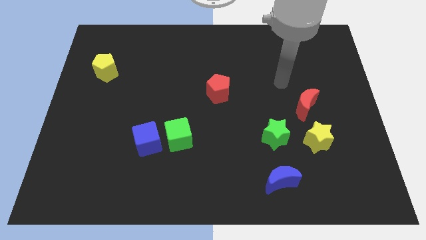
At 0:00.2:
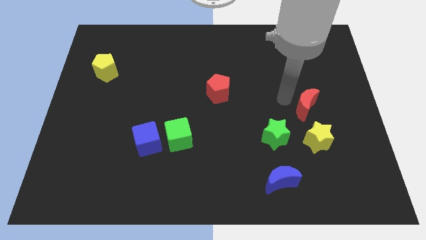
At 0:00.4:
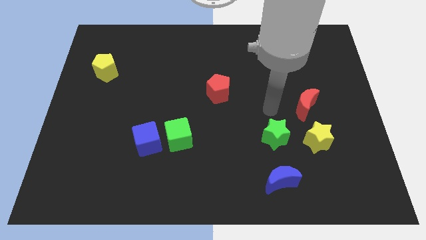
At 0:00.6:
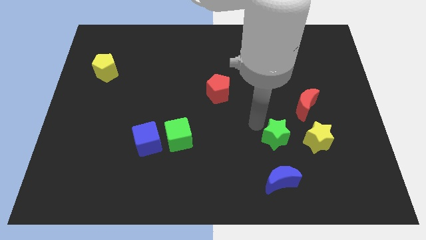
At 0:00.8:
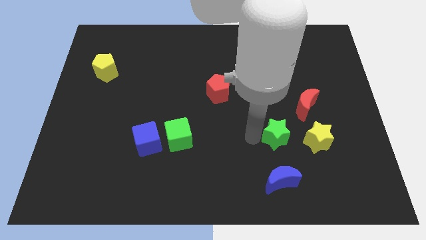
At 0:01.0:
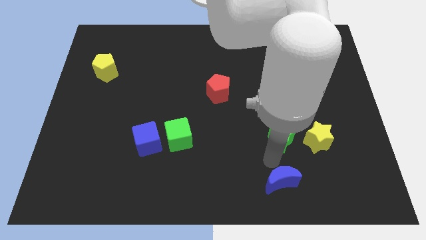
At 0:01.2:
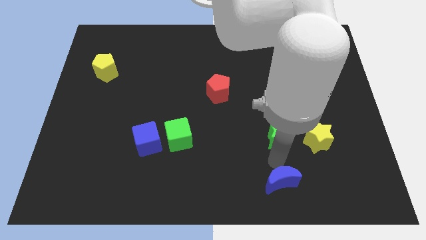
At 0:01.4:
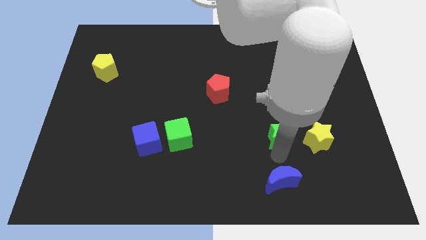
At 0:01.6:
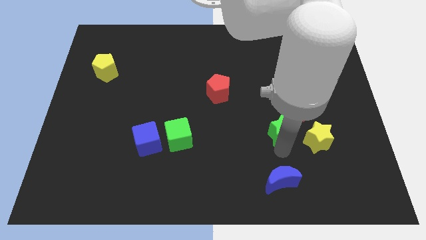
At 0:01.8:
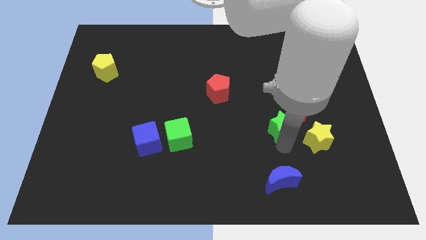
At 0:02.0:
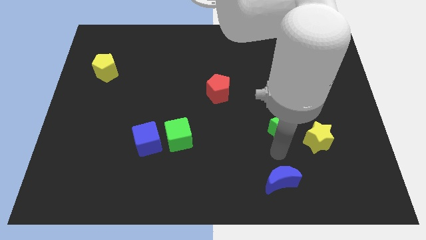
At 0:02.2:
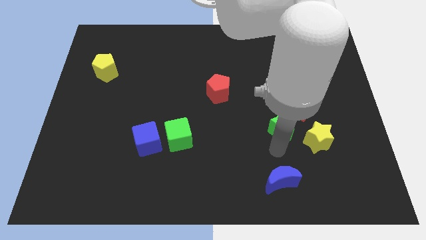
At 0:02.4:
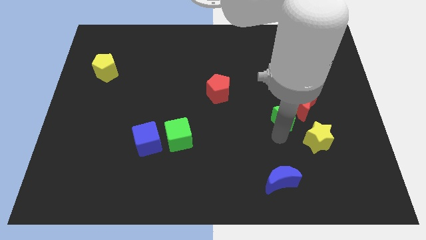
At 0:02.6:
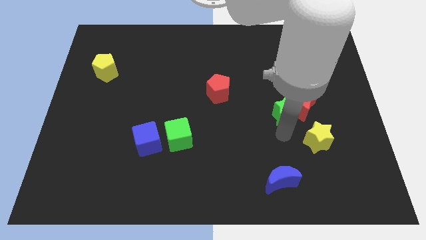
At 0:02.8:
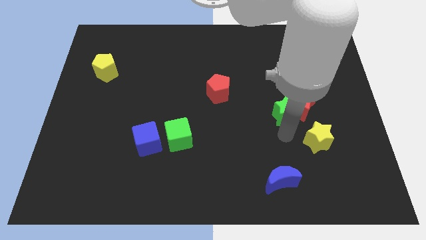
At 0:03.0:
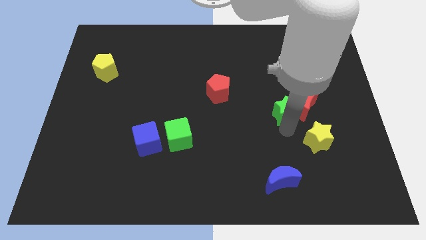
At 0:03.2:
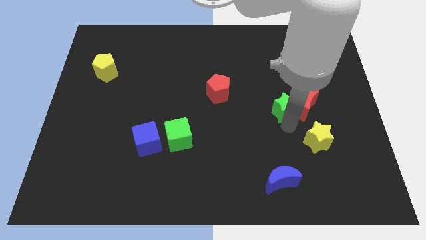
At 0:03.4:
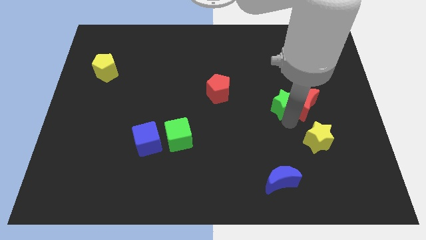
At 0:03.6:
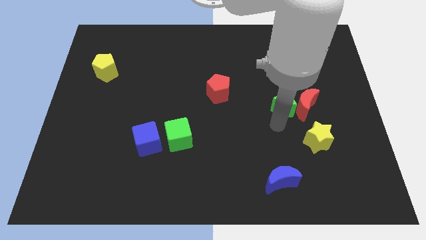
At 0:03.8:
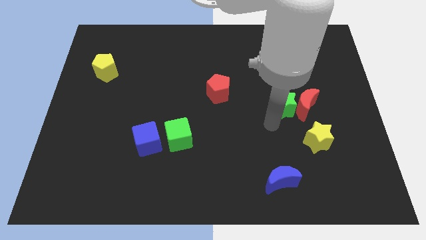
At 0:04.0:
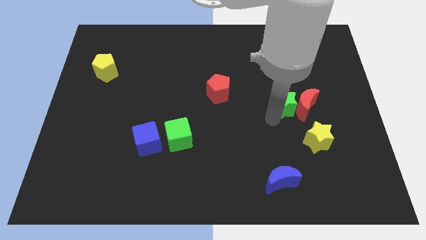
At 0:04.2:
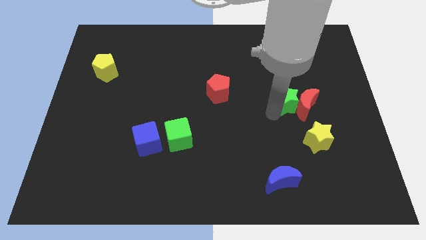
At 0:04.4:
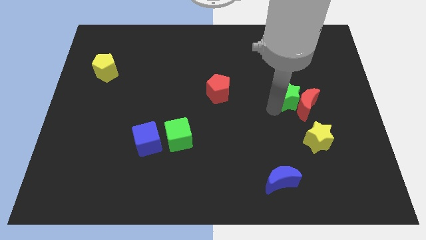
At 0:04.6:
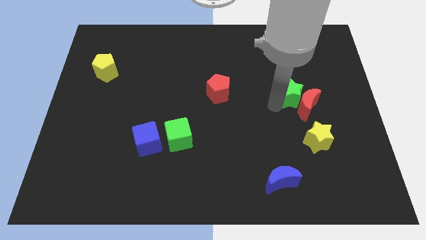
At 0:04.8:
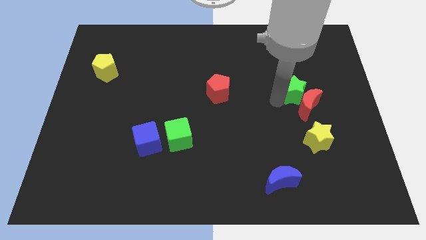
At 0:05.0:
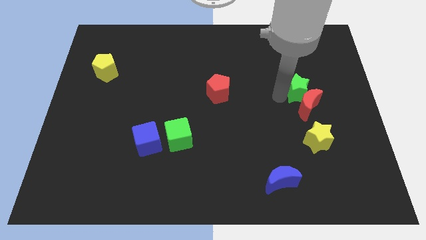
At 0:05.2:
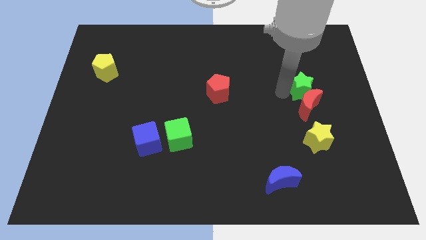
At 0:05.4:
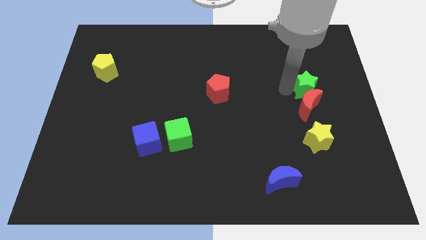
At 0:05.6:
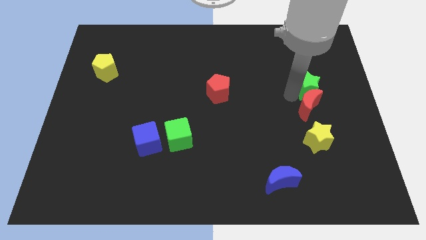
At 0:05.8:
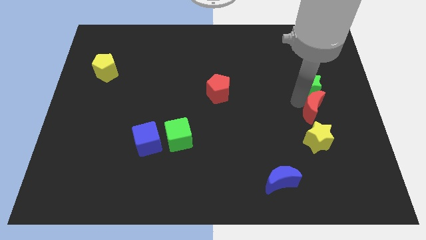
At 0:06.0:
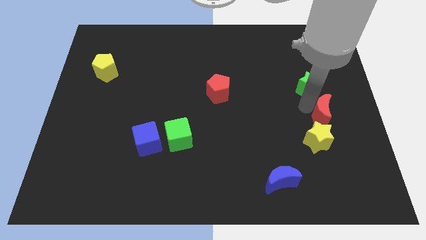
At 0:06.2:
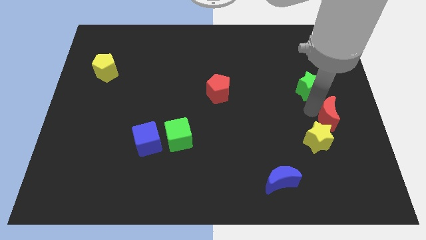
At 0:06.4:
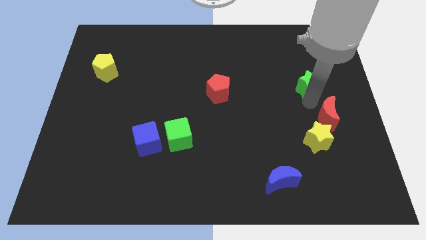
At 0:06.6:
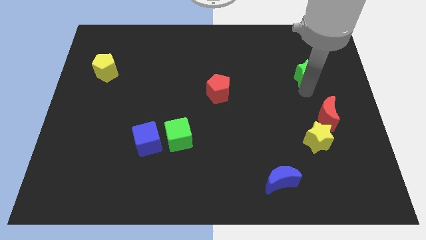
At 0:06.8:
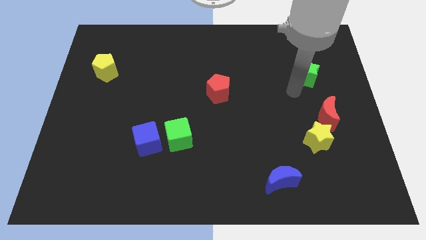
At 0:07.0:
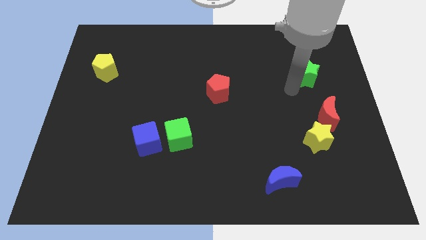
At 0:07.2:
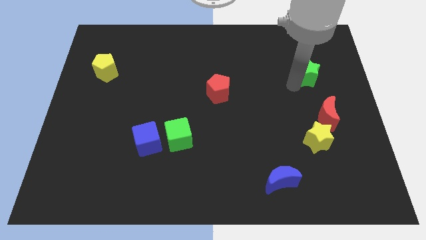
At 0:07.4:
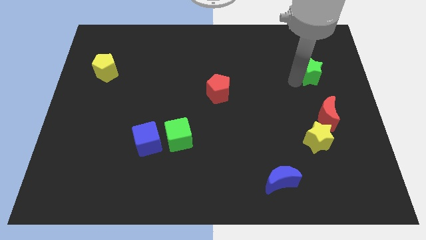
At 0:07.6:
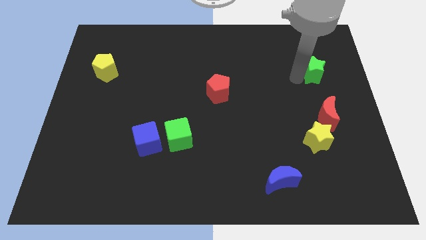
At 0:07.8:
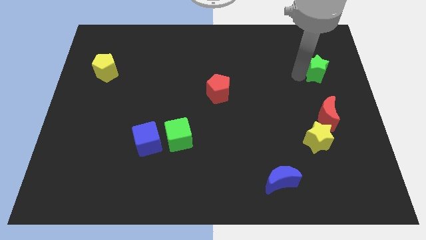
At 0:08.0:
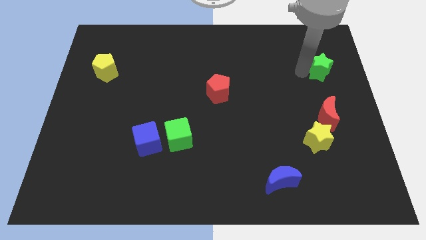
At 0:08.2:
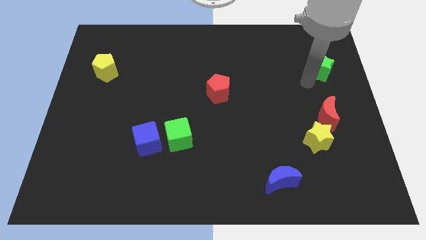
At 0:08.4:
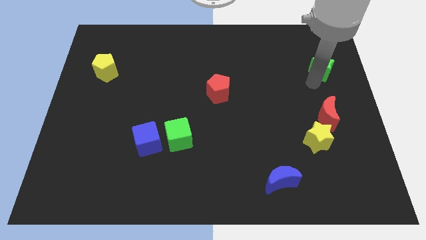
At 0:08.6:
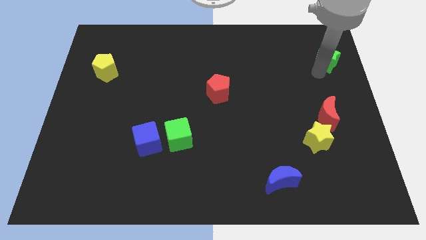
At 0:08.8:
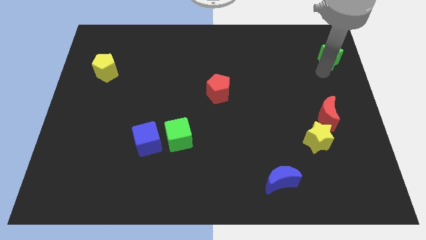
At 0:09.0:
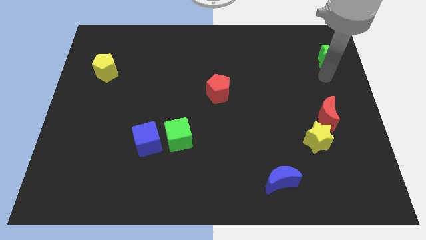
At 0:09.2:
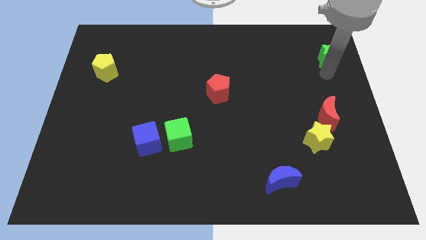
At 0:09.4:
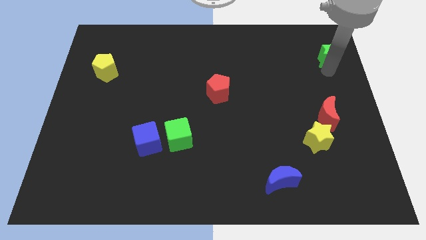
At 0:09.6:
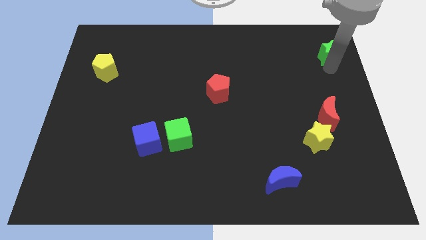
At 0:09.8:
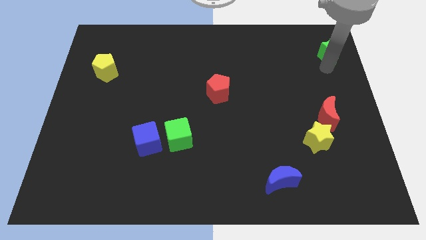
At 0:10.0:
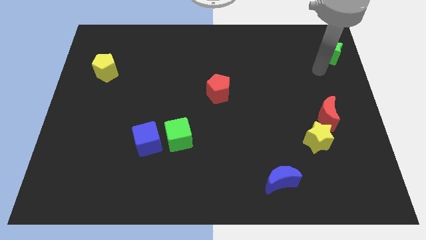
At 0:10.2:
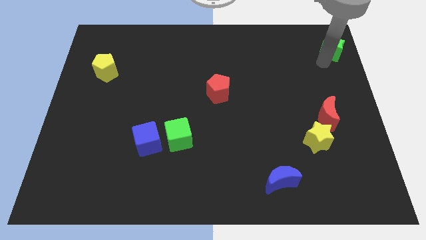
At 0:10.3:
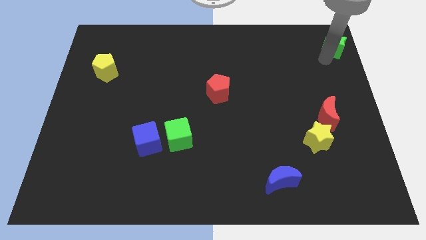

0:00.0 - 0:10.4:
slide the green star to the top right corner

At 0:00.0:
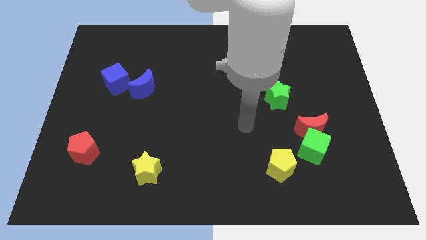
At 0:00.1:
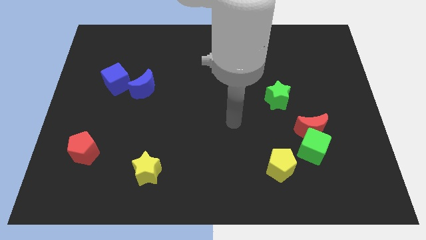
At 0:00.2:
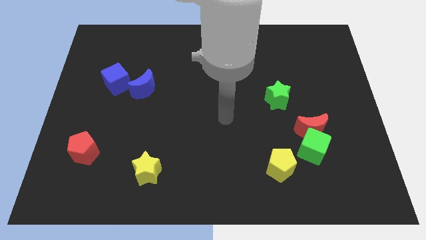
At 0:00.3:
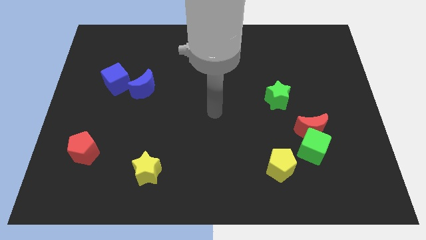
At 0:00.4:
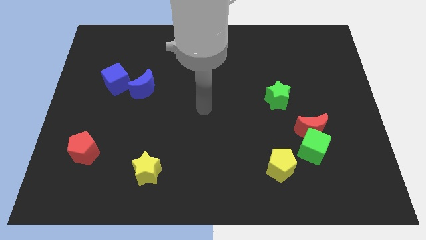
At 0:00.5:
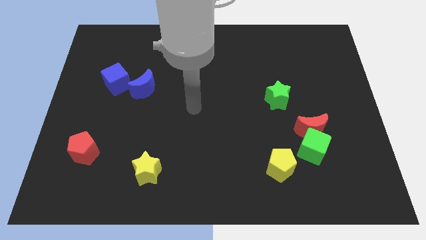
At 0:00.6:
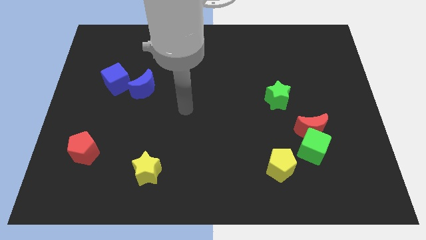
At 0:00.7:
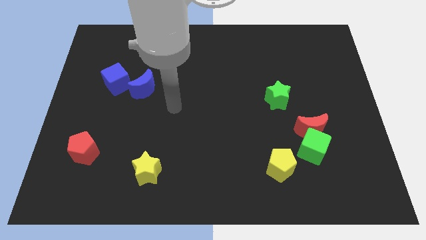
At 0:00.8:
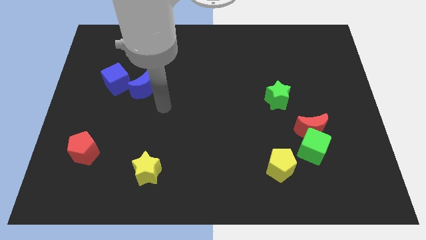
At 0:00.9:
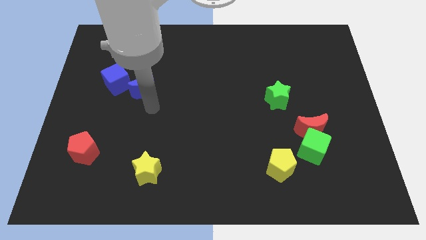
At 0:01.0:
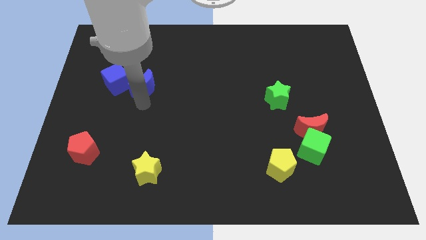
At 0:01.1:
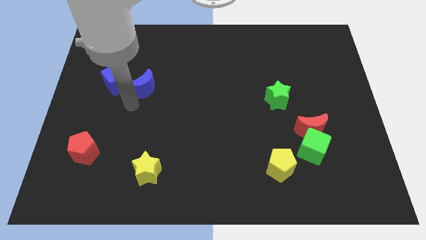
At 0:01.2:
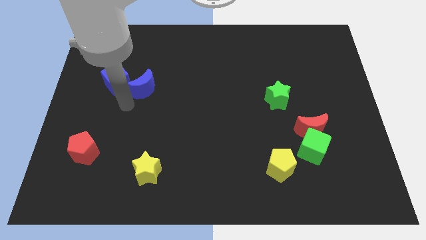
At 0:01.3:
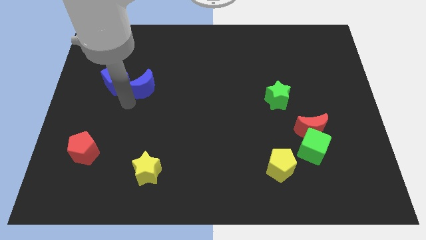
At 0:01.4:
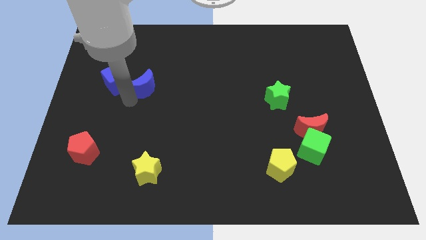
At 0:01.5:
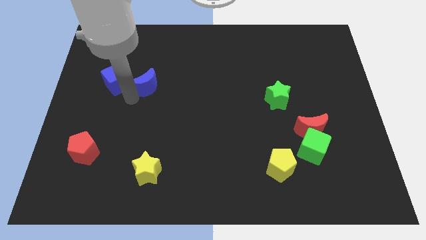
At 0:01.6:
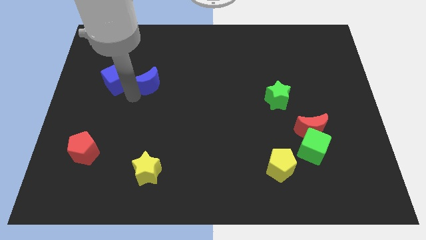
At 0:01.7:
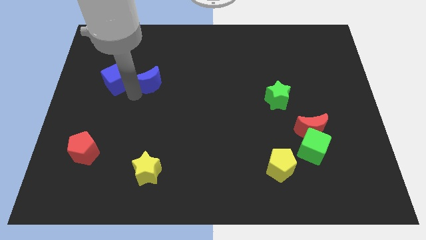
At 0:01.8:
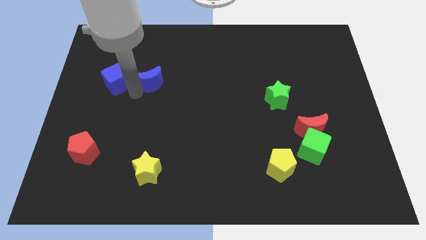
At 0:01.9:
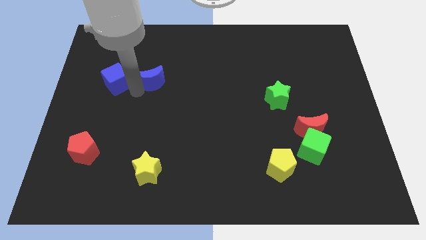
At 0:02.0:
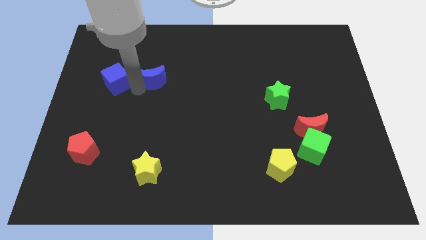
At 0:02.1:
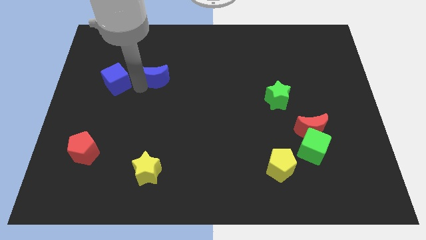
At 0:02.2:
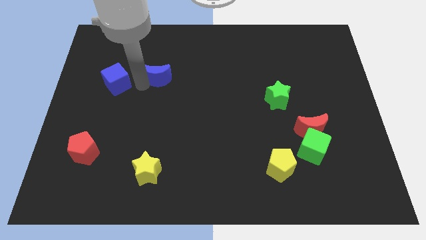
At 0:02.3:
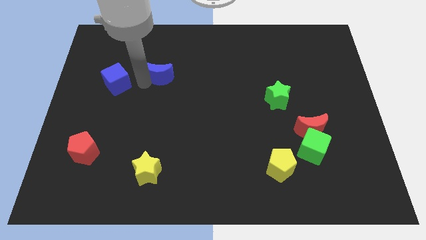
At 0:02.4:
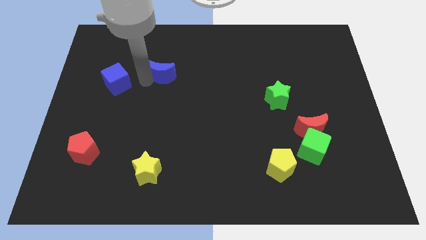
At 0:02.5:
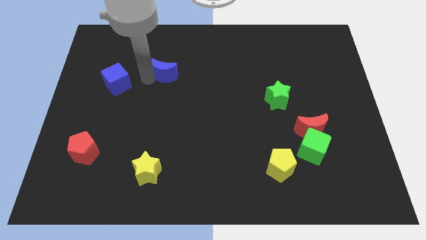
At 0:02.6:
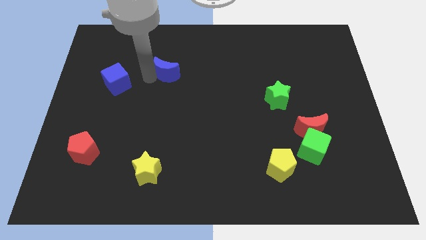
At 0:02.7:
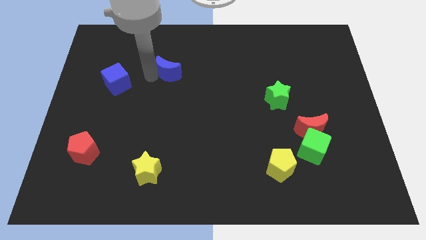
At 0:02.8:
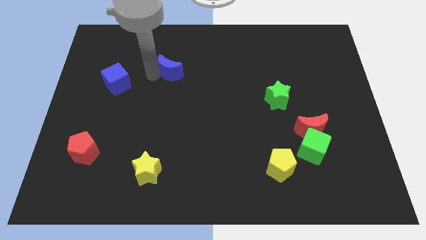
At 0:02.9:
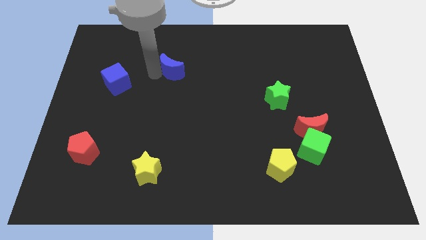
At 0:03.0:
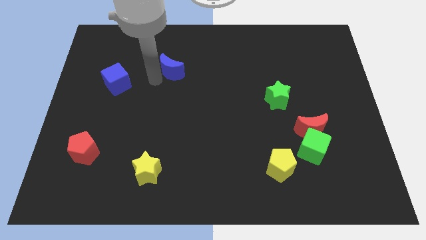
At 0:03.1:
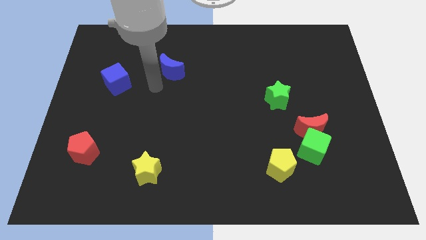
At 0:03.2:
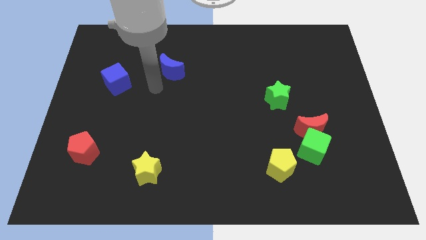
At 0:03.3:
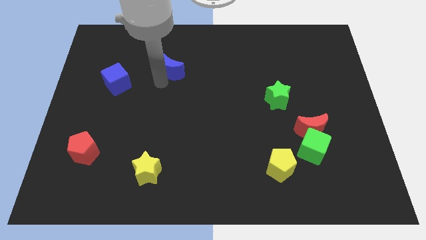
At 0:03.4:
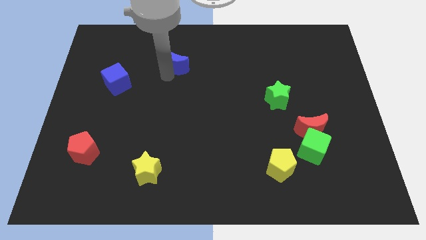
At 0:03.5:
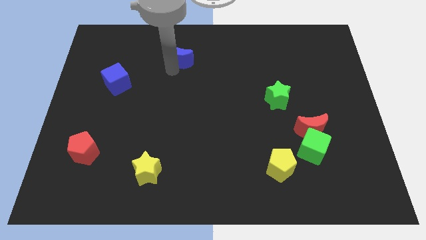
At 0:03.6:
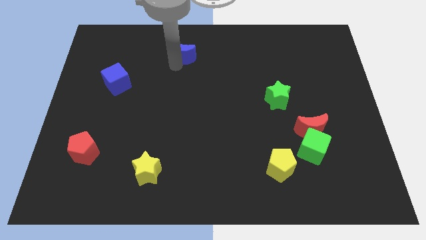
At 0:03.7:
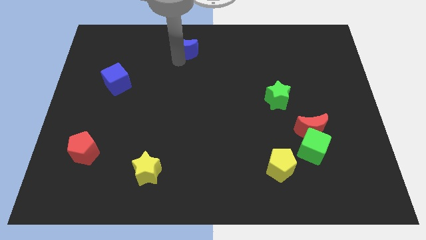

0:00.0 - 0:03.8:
push the blue moon to the top side
